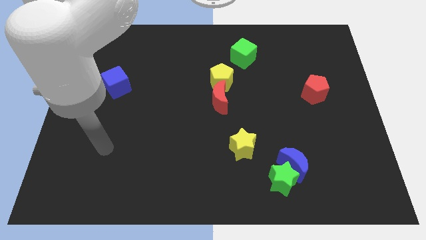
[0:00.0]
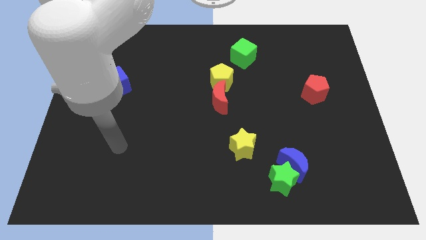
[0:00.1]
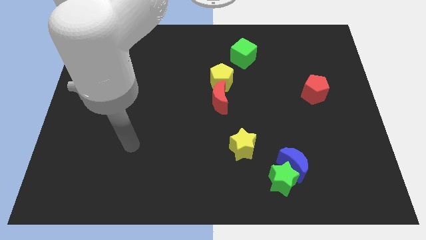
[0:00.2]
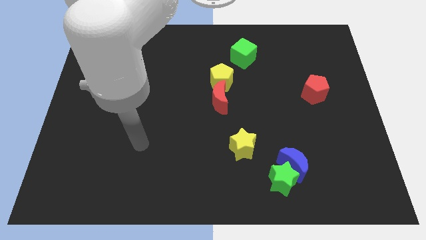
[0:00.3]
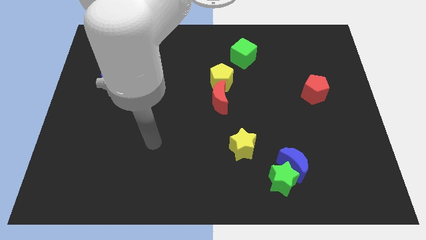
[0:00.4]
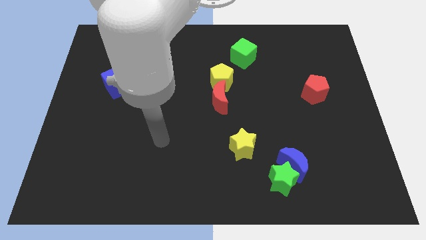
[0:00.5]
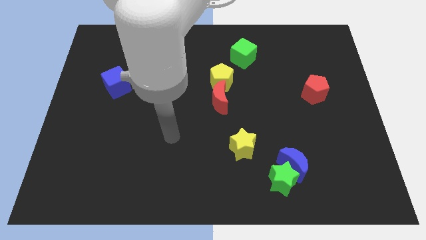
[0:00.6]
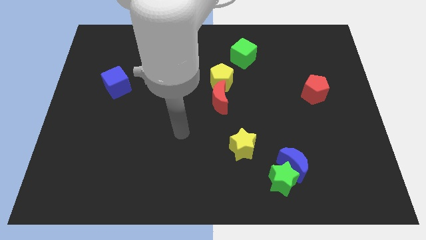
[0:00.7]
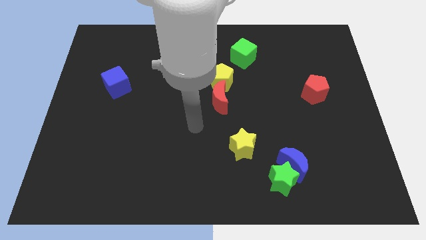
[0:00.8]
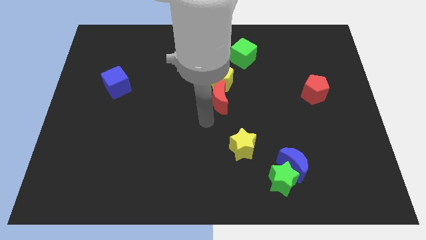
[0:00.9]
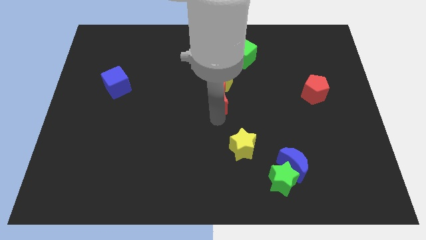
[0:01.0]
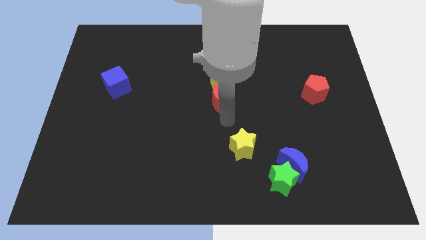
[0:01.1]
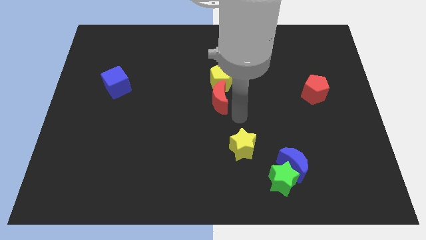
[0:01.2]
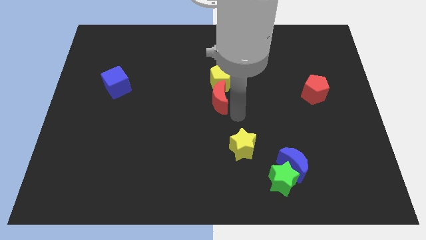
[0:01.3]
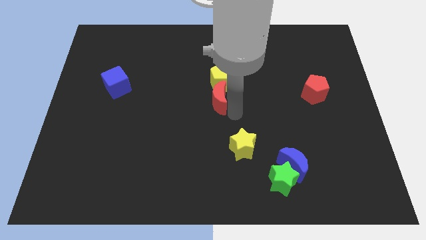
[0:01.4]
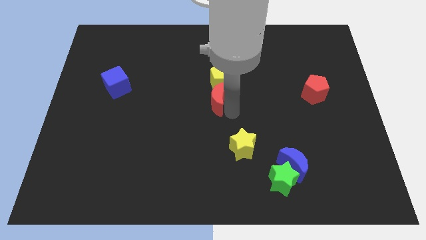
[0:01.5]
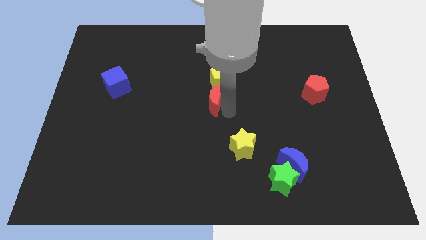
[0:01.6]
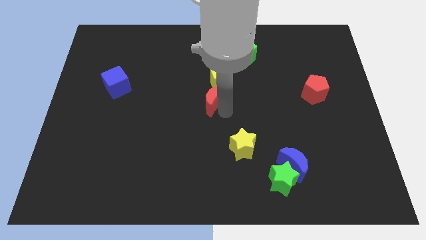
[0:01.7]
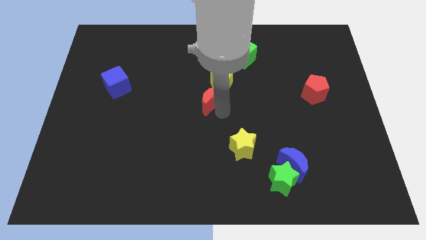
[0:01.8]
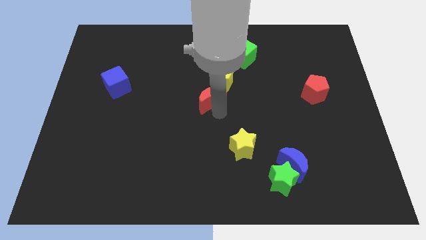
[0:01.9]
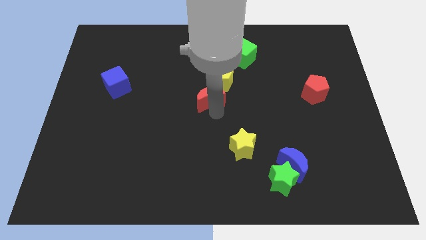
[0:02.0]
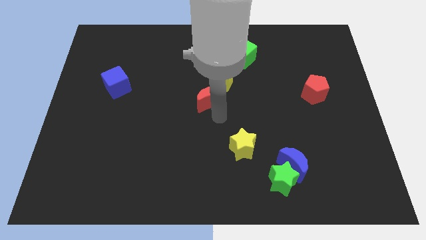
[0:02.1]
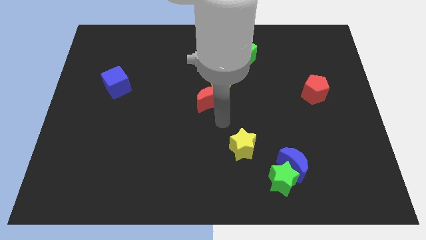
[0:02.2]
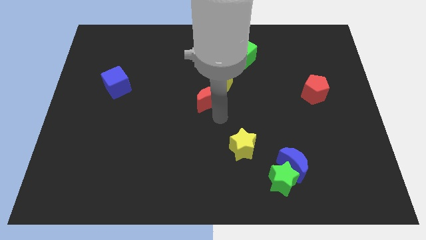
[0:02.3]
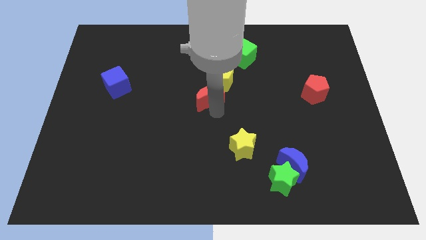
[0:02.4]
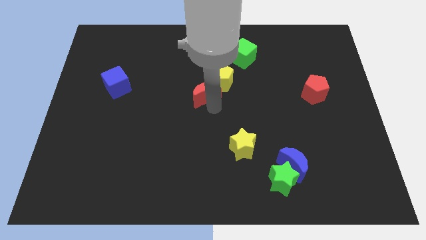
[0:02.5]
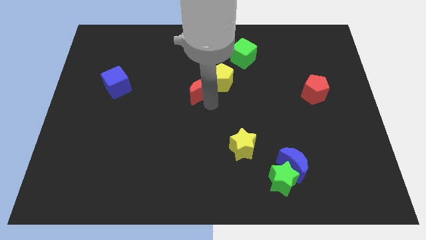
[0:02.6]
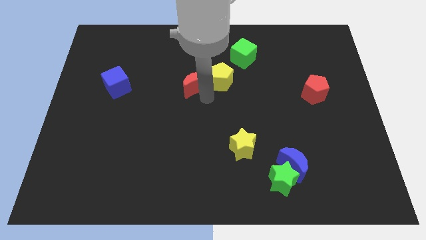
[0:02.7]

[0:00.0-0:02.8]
slightly slide the red moon upwards and to the left diagonally

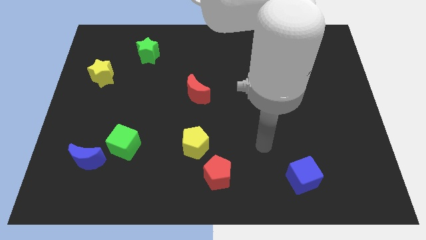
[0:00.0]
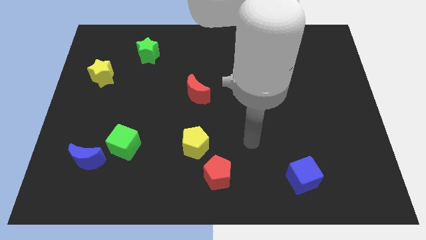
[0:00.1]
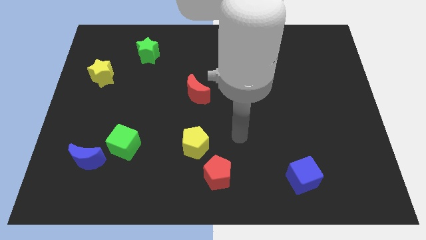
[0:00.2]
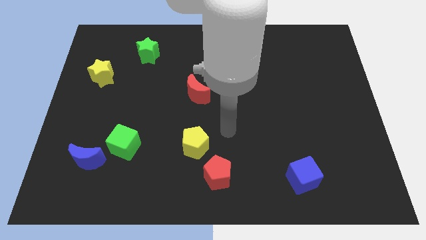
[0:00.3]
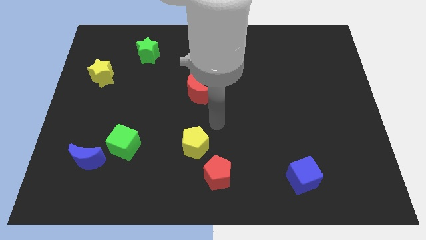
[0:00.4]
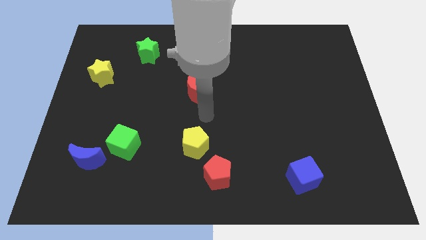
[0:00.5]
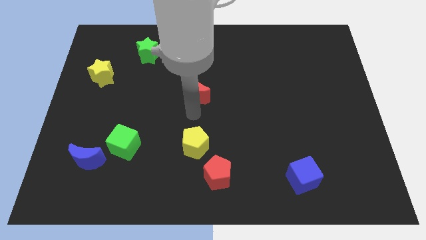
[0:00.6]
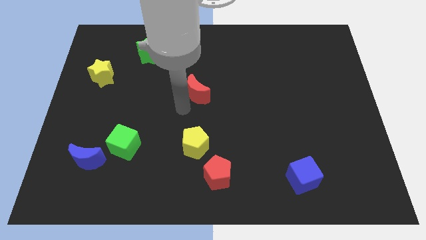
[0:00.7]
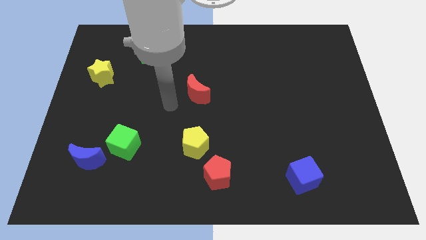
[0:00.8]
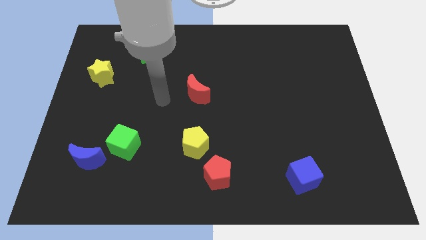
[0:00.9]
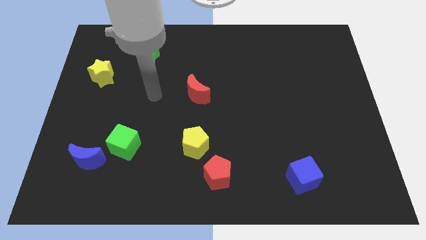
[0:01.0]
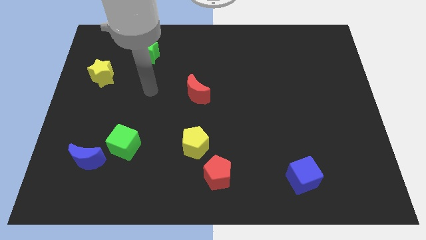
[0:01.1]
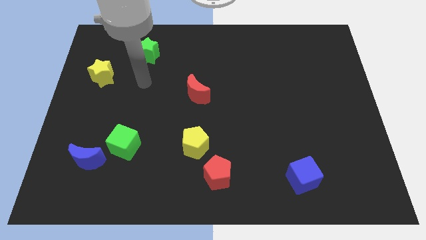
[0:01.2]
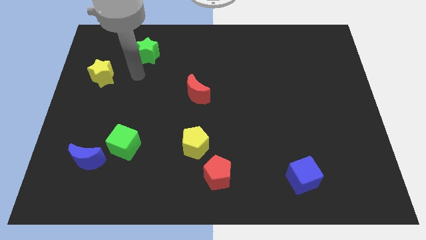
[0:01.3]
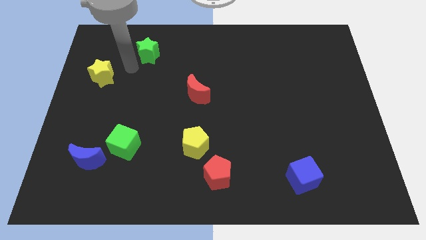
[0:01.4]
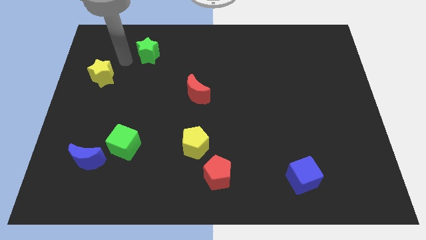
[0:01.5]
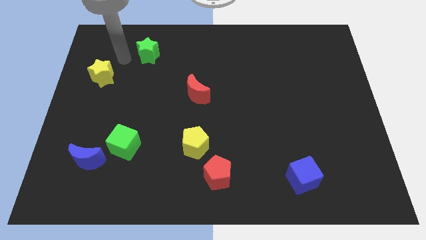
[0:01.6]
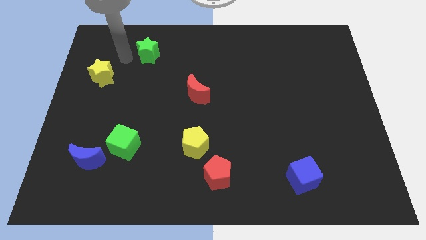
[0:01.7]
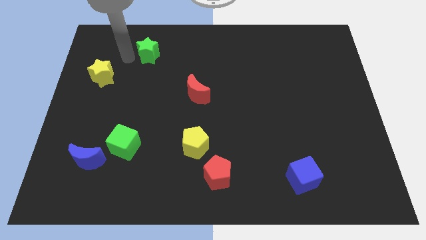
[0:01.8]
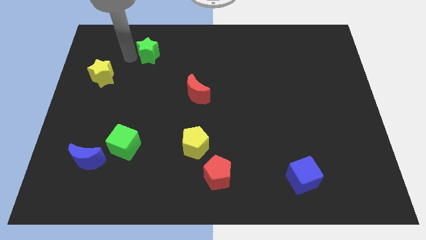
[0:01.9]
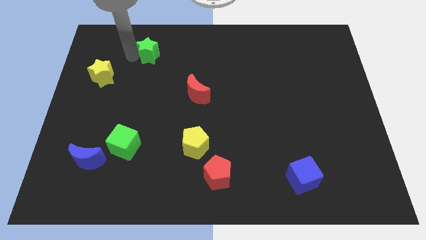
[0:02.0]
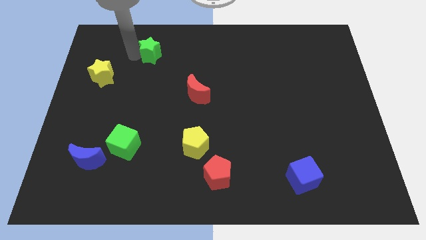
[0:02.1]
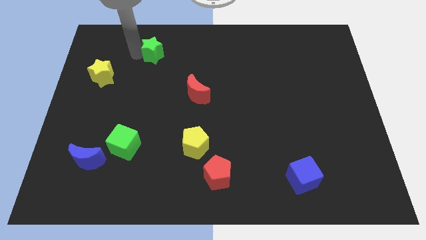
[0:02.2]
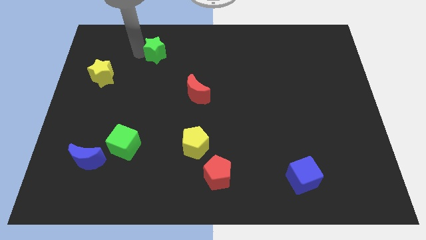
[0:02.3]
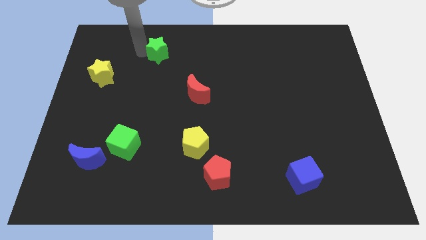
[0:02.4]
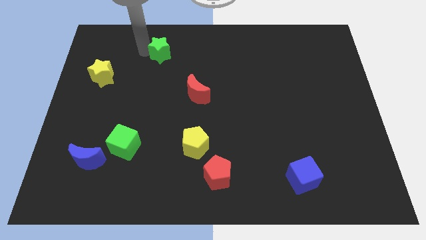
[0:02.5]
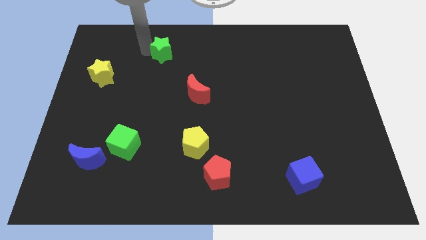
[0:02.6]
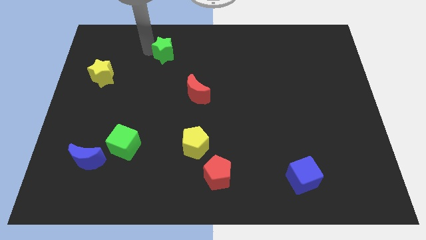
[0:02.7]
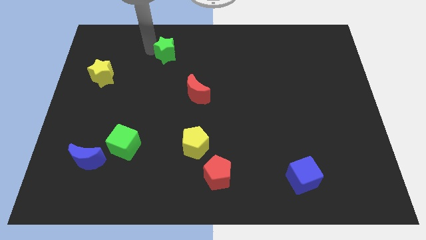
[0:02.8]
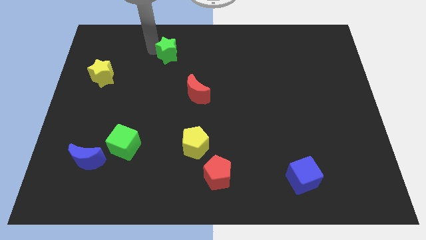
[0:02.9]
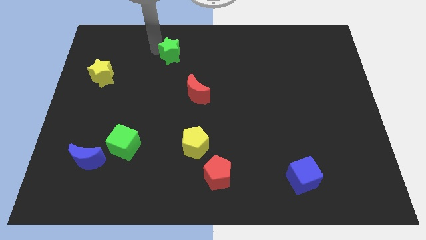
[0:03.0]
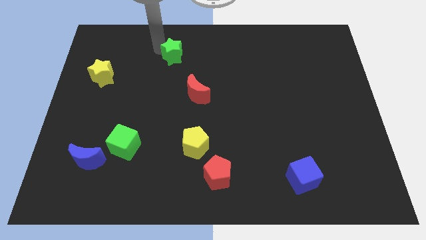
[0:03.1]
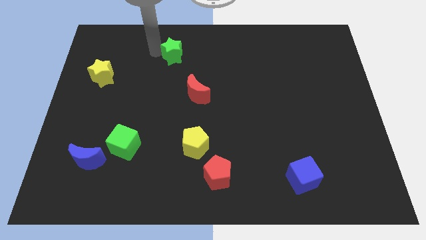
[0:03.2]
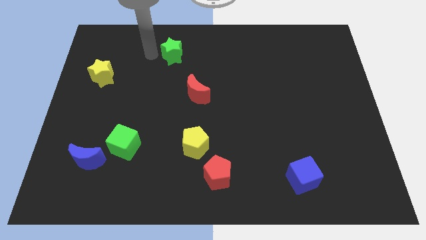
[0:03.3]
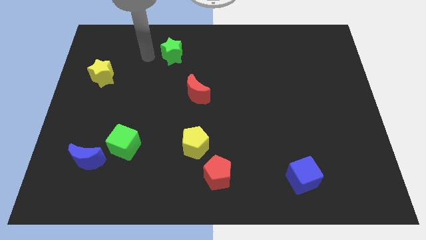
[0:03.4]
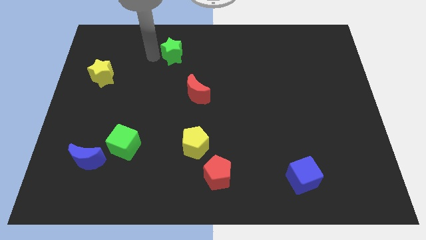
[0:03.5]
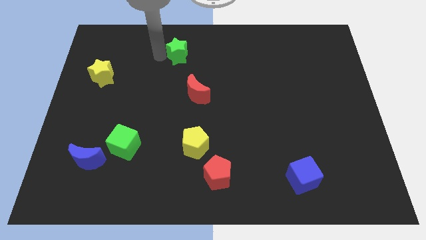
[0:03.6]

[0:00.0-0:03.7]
slightly push the green star to the right

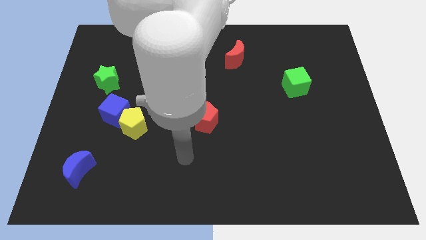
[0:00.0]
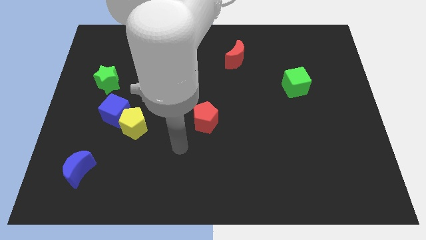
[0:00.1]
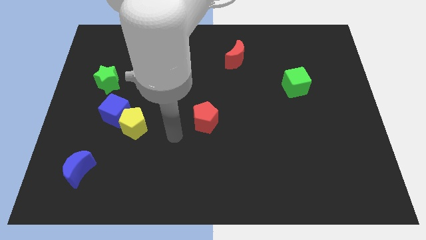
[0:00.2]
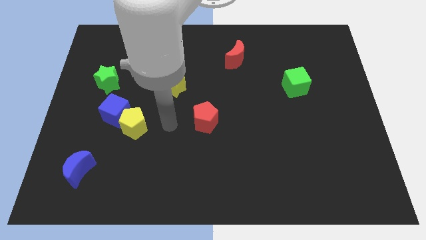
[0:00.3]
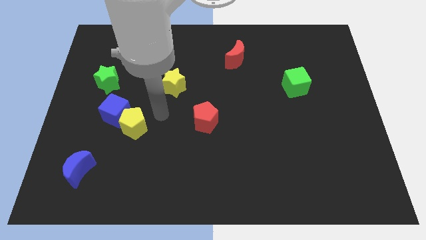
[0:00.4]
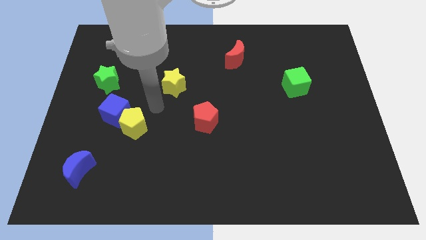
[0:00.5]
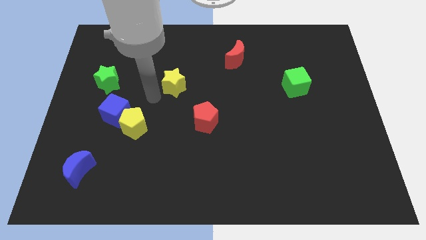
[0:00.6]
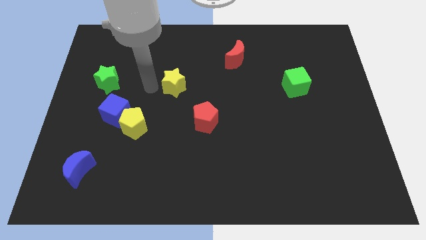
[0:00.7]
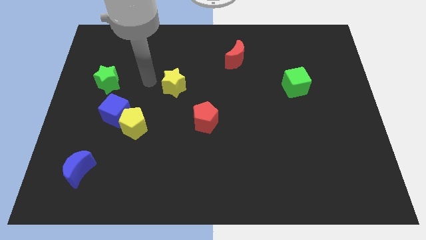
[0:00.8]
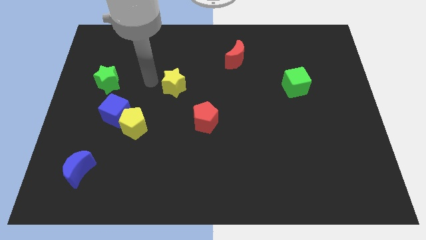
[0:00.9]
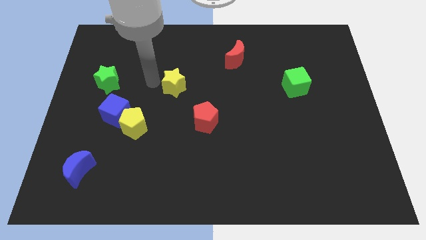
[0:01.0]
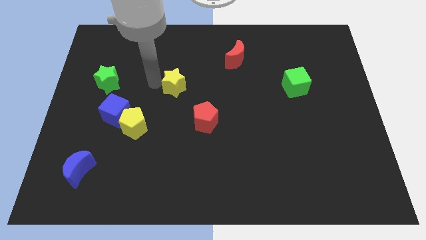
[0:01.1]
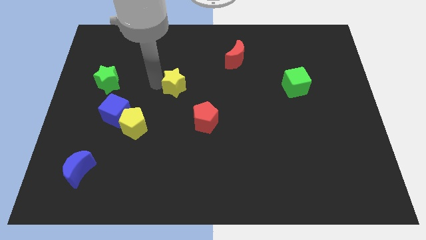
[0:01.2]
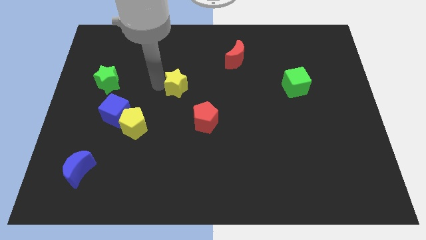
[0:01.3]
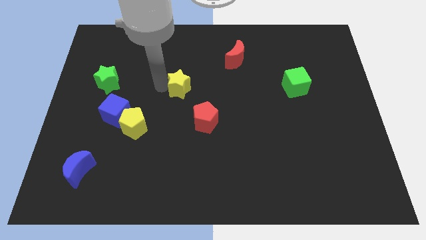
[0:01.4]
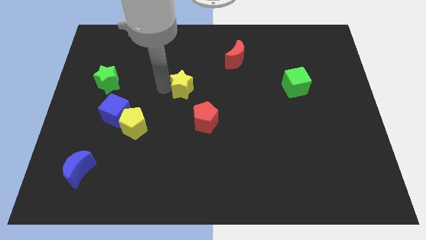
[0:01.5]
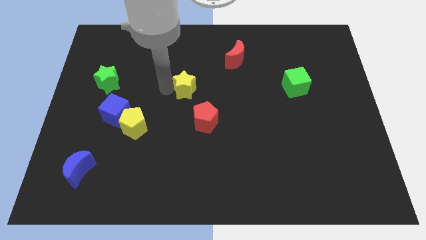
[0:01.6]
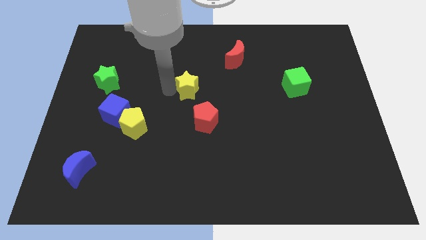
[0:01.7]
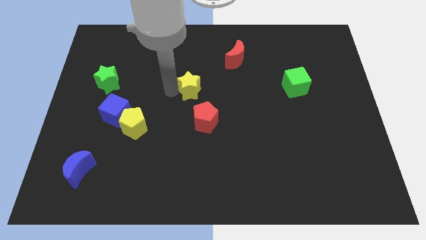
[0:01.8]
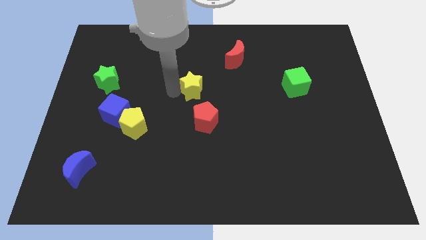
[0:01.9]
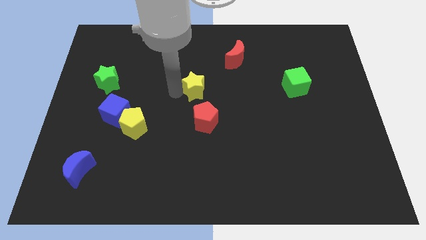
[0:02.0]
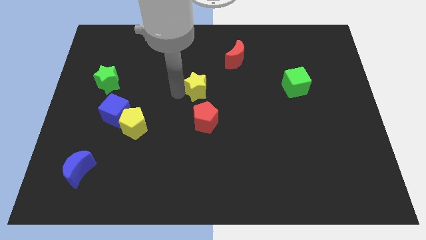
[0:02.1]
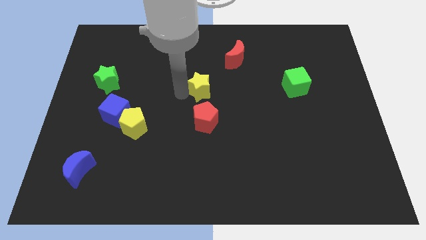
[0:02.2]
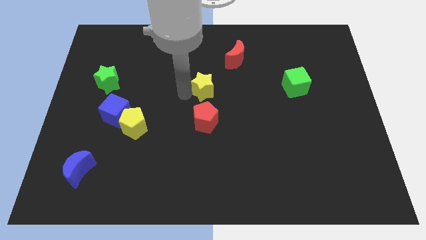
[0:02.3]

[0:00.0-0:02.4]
push the yellow star a little to the right
